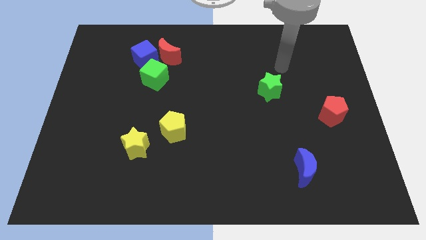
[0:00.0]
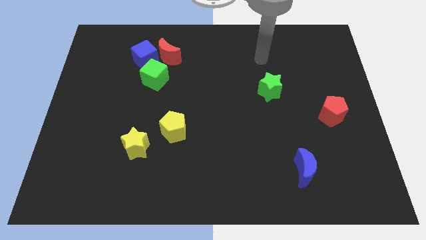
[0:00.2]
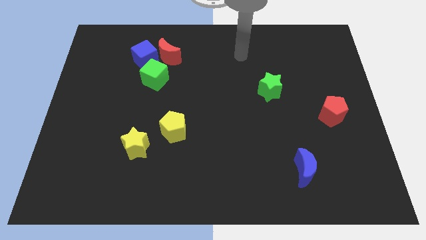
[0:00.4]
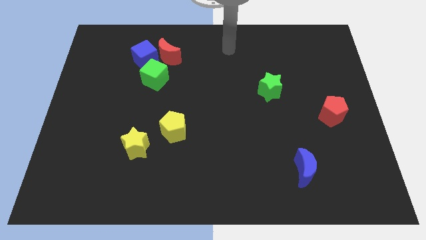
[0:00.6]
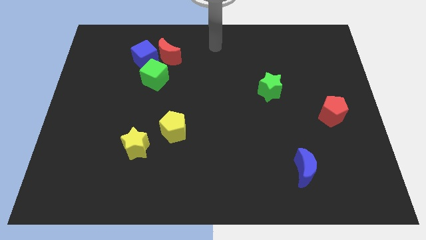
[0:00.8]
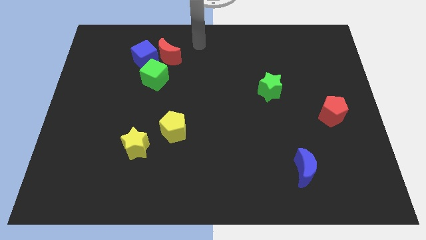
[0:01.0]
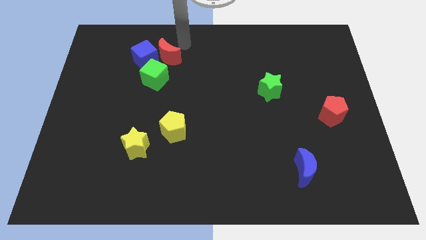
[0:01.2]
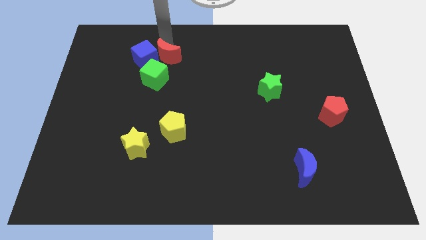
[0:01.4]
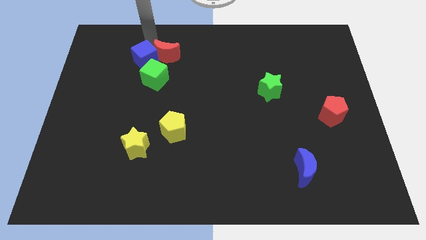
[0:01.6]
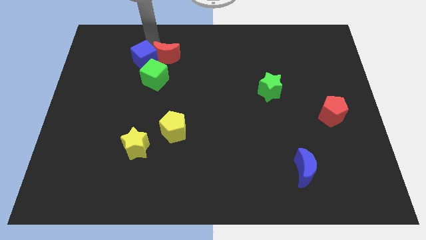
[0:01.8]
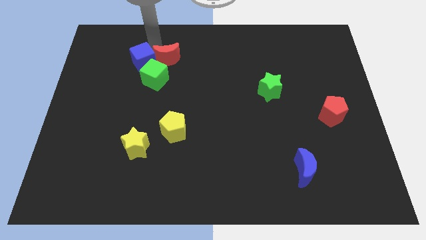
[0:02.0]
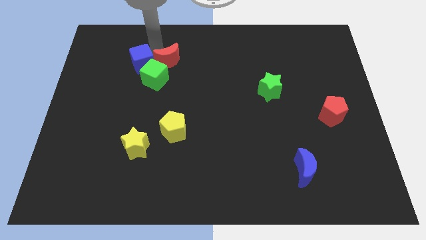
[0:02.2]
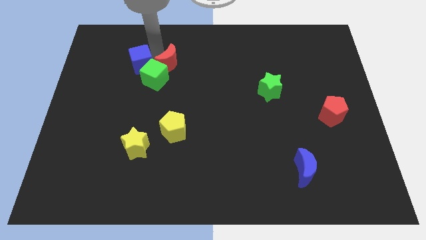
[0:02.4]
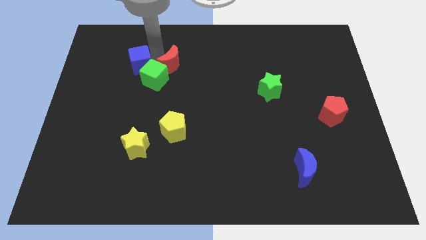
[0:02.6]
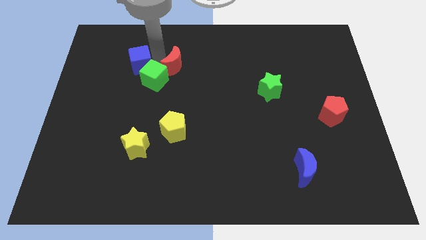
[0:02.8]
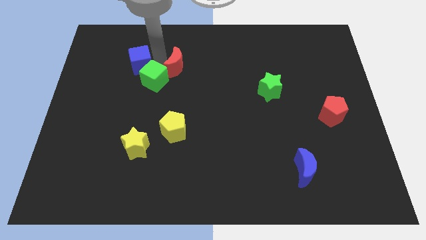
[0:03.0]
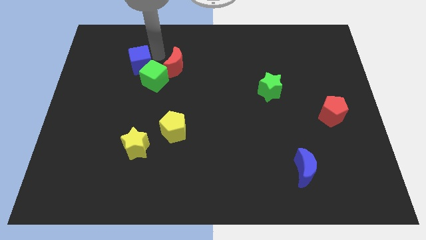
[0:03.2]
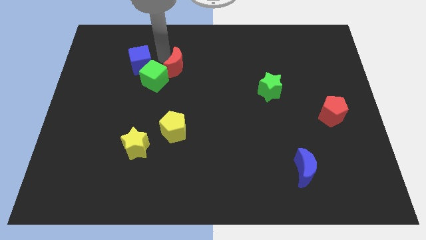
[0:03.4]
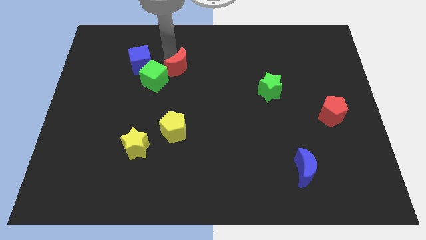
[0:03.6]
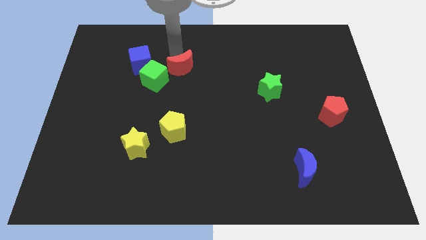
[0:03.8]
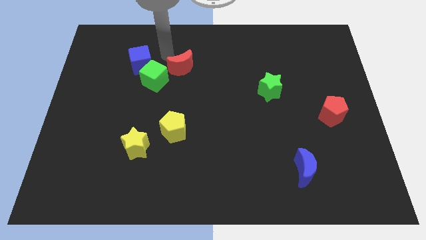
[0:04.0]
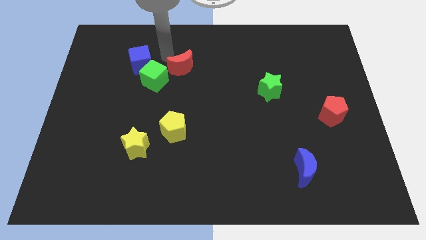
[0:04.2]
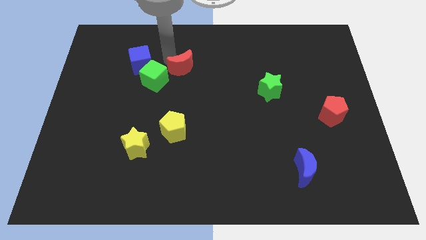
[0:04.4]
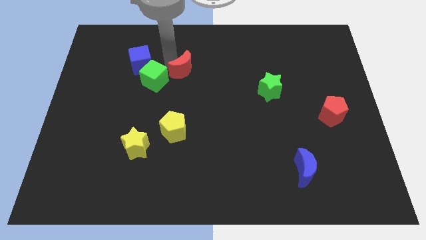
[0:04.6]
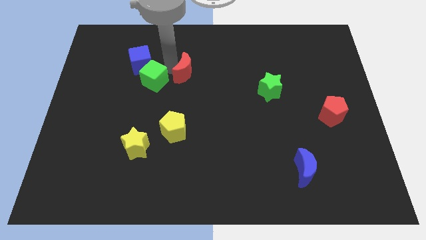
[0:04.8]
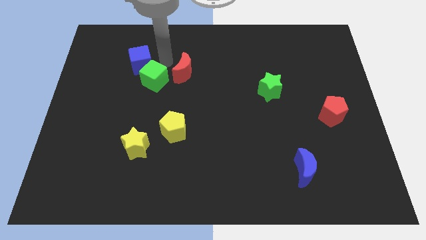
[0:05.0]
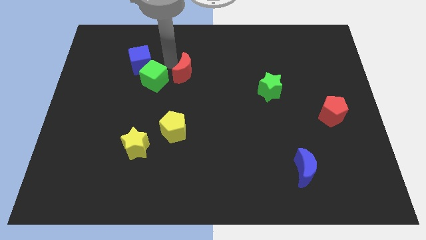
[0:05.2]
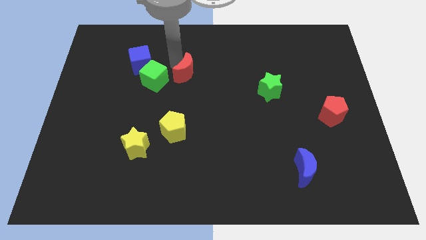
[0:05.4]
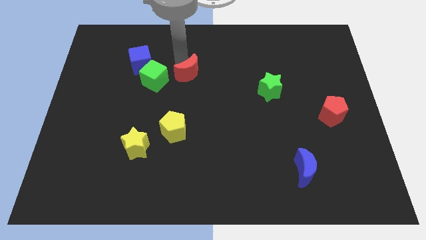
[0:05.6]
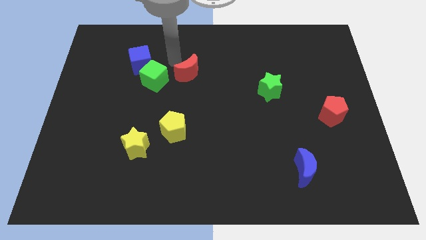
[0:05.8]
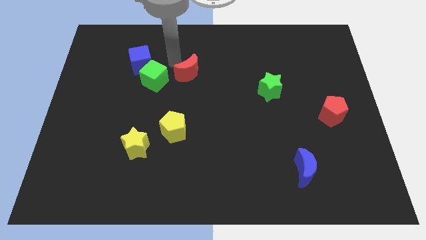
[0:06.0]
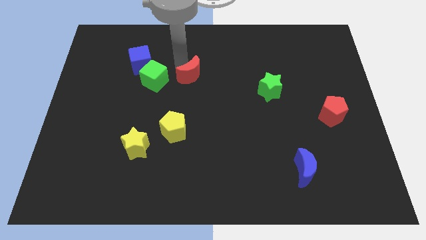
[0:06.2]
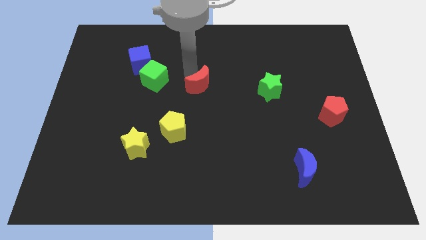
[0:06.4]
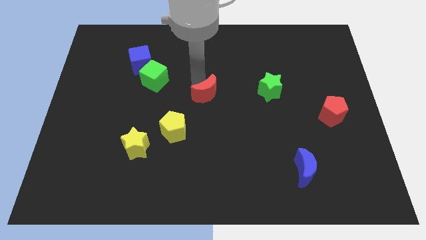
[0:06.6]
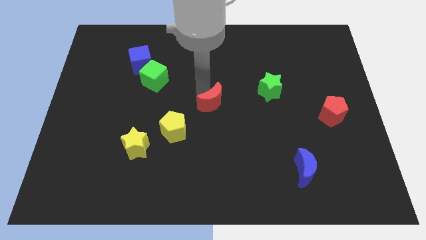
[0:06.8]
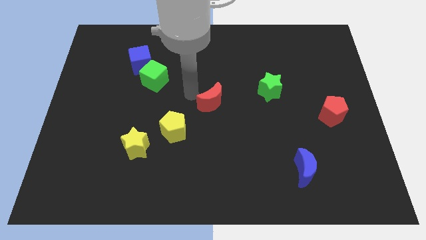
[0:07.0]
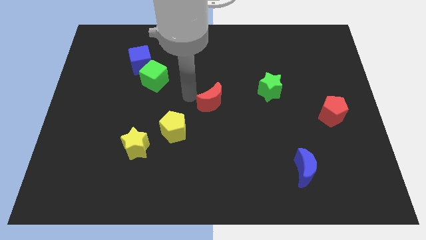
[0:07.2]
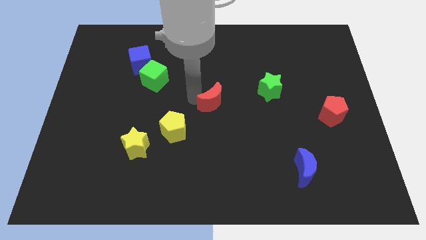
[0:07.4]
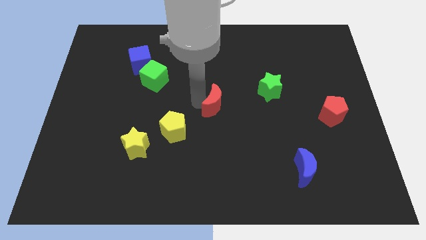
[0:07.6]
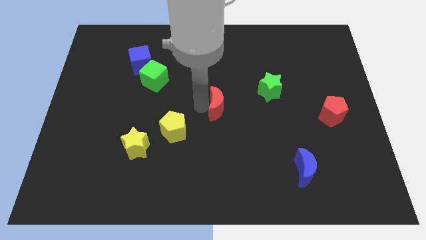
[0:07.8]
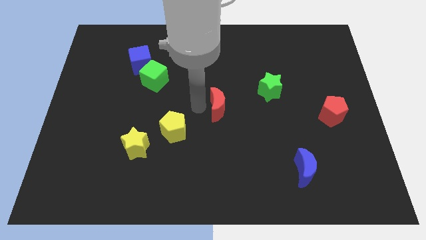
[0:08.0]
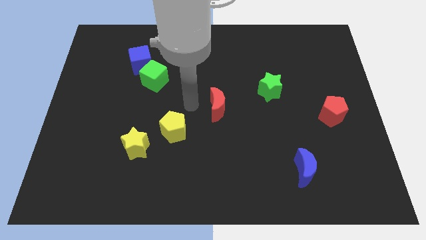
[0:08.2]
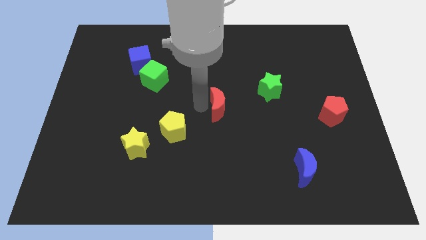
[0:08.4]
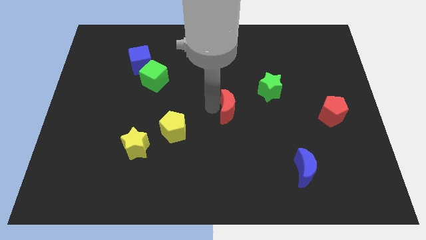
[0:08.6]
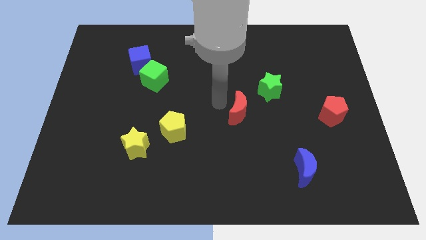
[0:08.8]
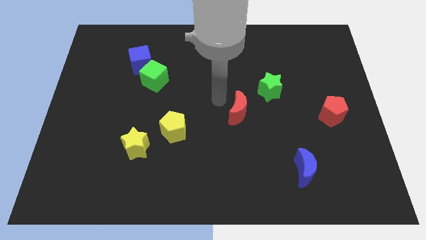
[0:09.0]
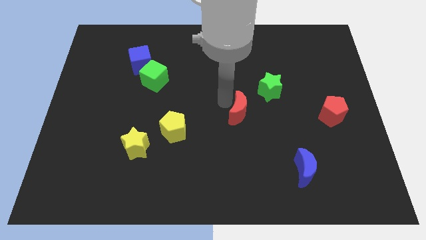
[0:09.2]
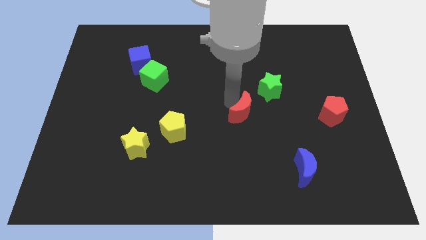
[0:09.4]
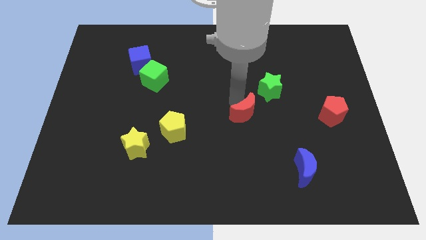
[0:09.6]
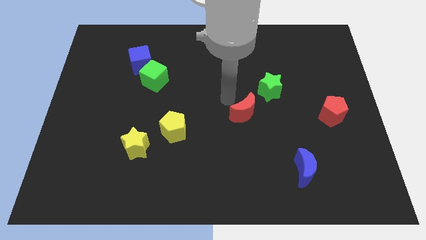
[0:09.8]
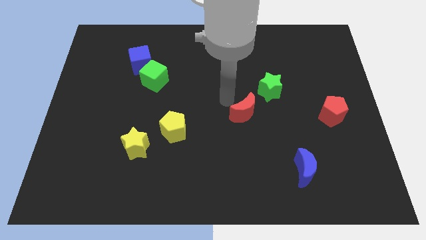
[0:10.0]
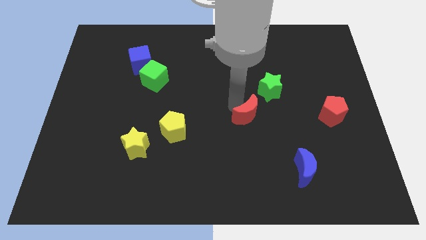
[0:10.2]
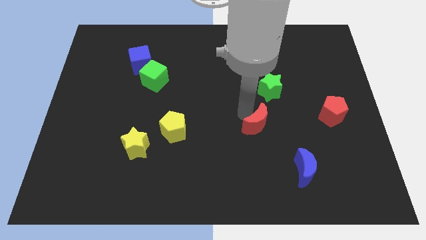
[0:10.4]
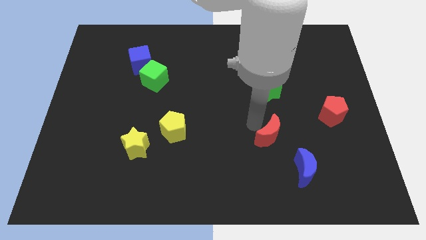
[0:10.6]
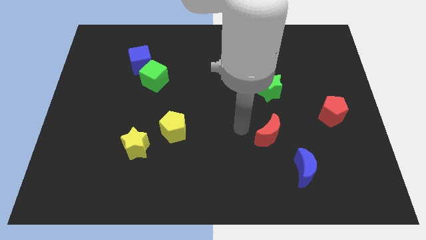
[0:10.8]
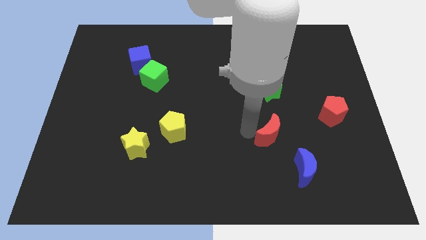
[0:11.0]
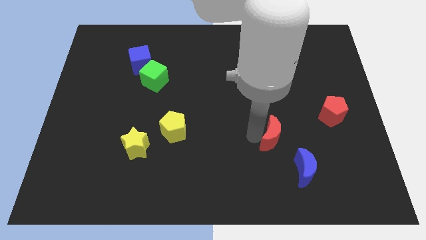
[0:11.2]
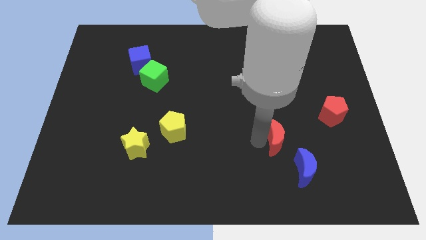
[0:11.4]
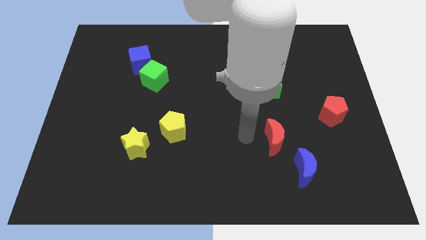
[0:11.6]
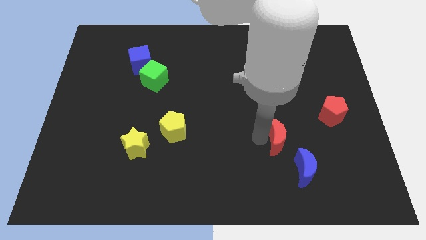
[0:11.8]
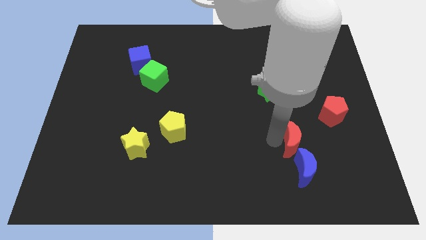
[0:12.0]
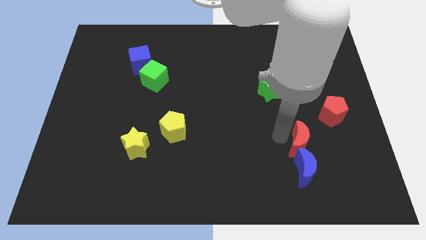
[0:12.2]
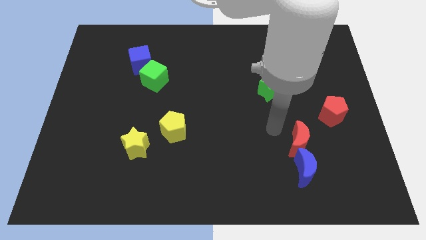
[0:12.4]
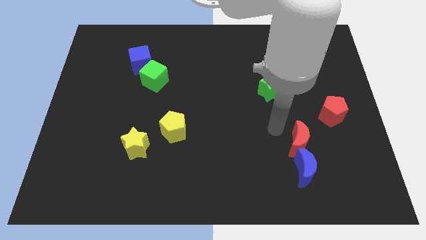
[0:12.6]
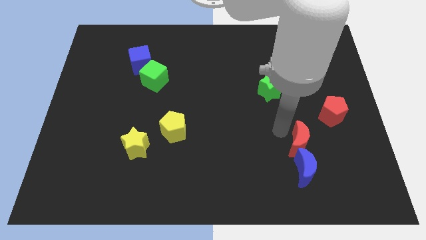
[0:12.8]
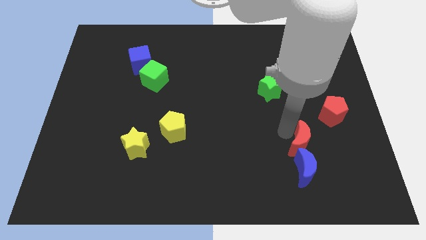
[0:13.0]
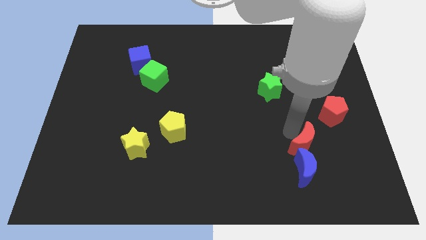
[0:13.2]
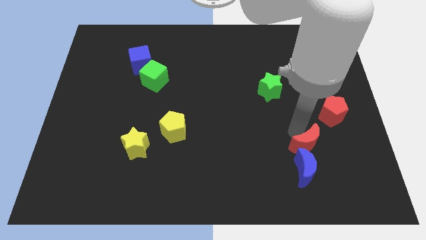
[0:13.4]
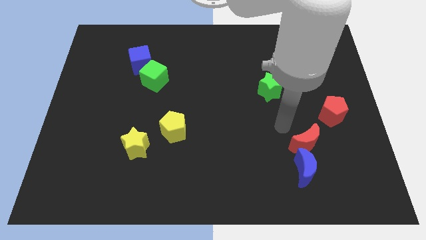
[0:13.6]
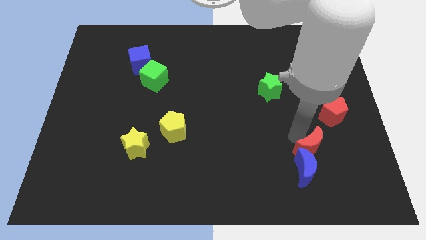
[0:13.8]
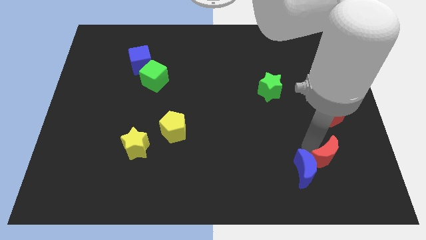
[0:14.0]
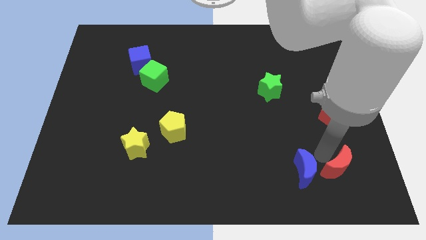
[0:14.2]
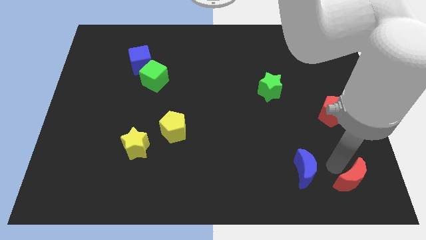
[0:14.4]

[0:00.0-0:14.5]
push the red moon to the lower right corner
